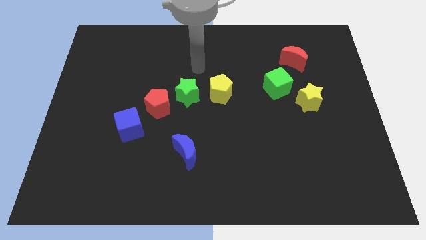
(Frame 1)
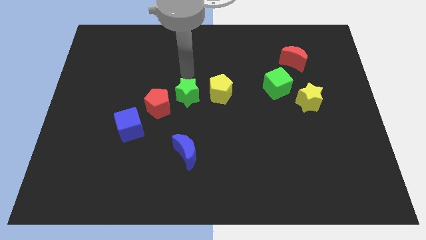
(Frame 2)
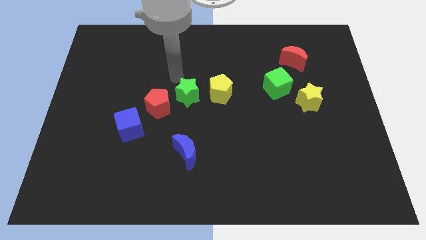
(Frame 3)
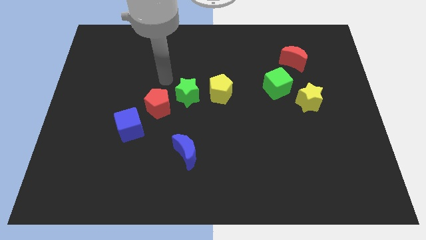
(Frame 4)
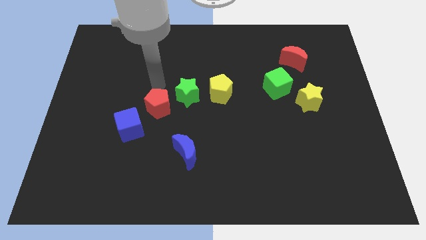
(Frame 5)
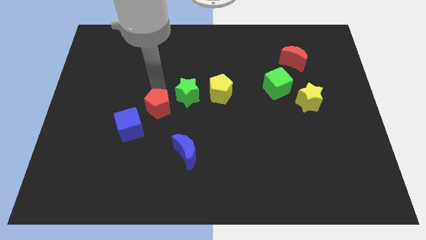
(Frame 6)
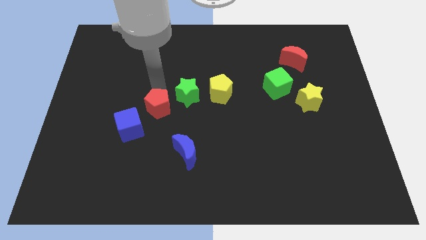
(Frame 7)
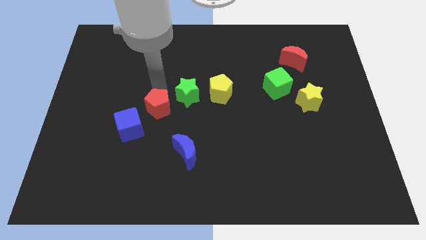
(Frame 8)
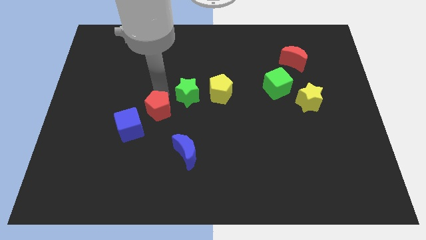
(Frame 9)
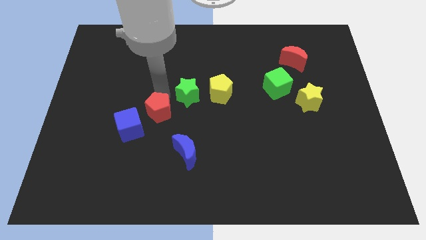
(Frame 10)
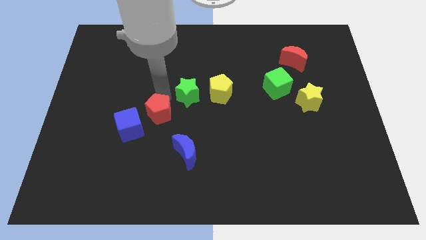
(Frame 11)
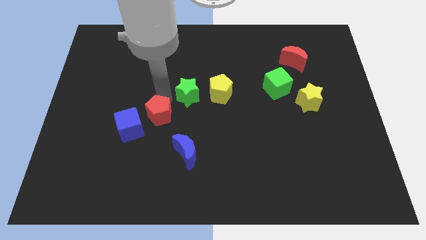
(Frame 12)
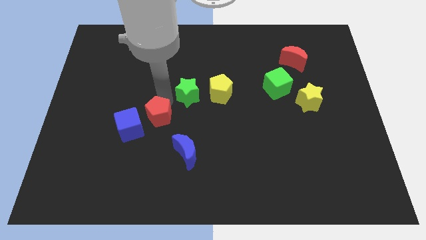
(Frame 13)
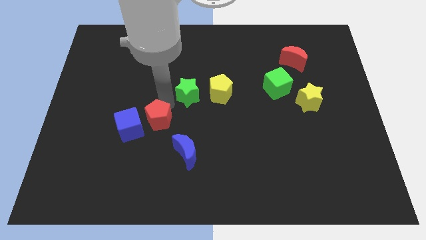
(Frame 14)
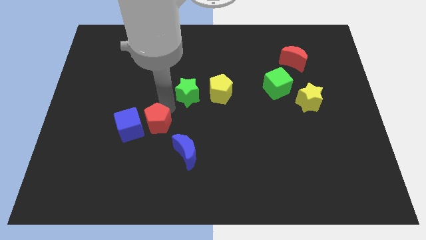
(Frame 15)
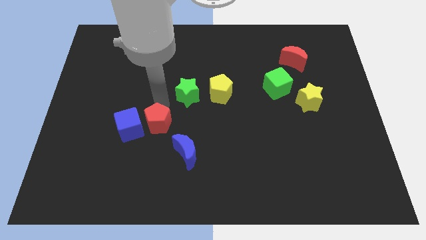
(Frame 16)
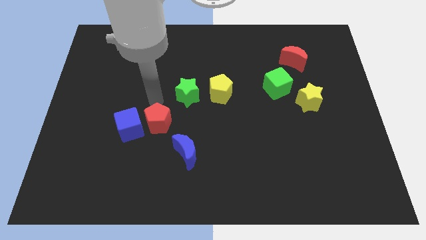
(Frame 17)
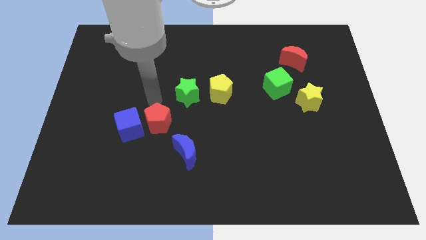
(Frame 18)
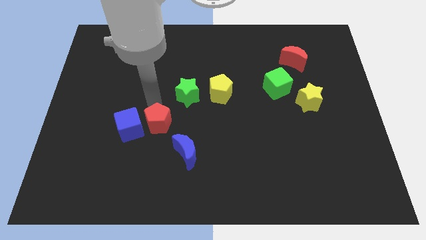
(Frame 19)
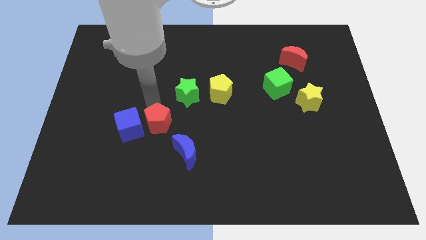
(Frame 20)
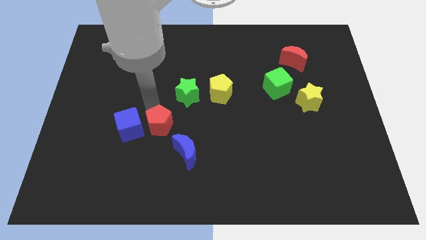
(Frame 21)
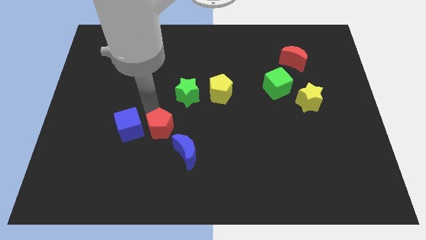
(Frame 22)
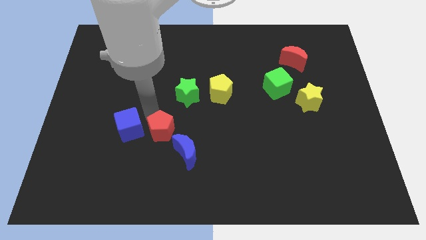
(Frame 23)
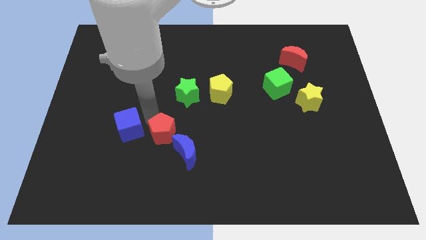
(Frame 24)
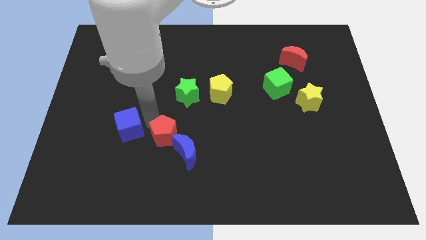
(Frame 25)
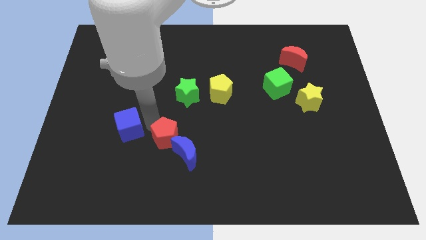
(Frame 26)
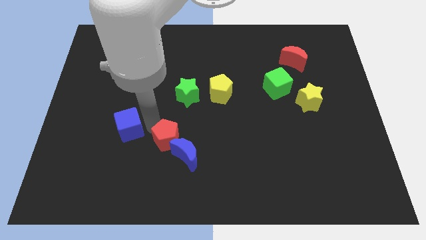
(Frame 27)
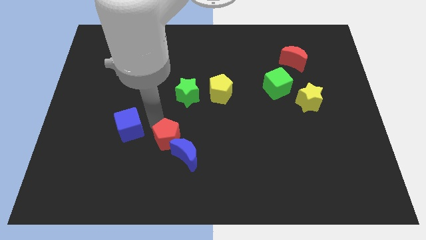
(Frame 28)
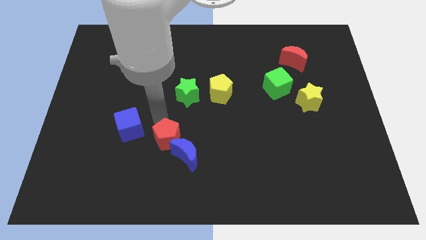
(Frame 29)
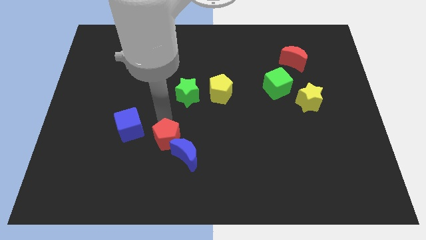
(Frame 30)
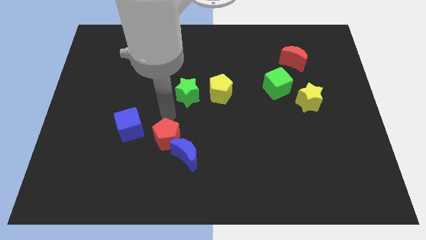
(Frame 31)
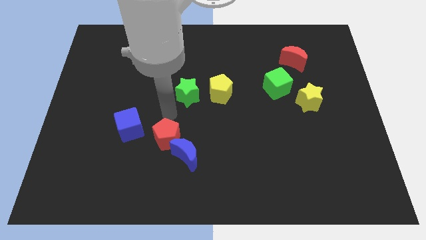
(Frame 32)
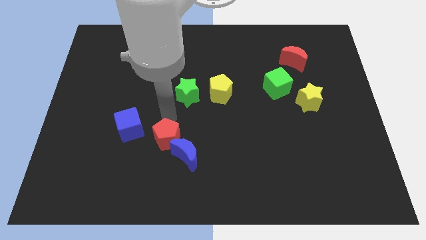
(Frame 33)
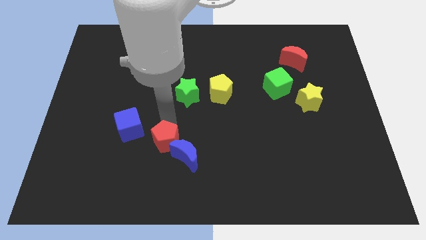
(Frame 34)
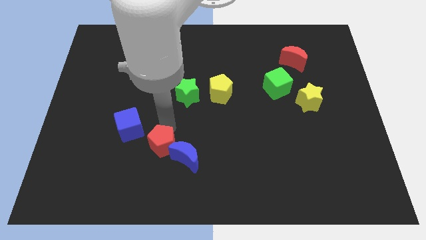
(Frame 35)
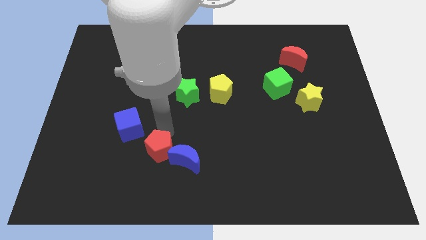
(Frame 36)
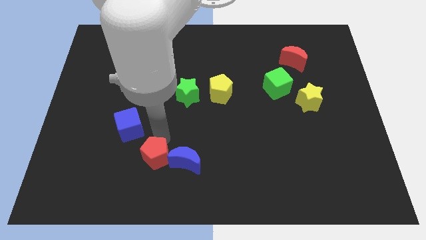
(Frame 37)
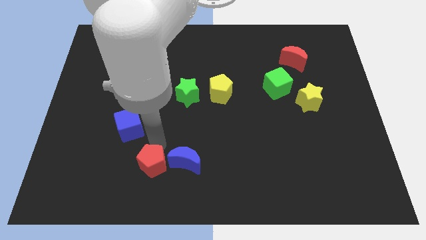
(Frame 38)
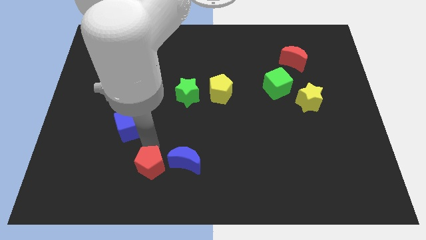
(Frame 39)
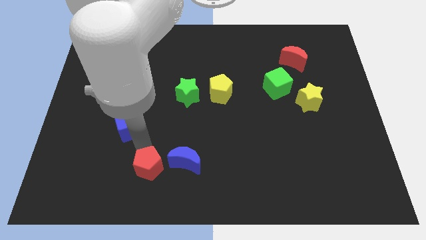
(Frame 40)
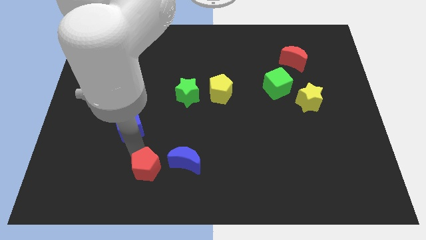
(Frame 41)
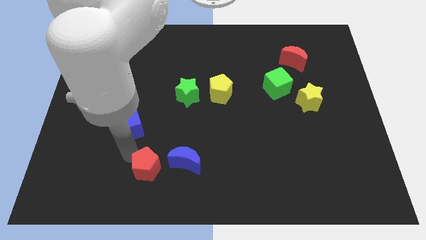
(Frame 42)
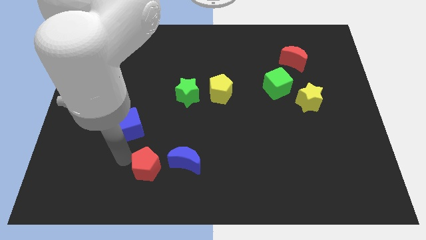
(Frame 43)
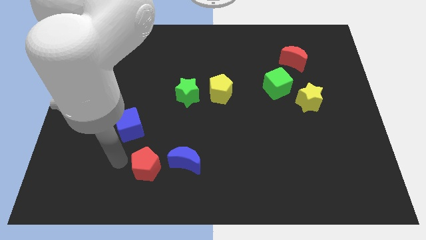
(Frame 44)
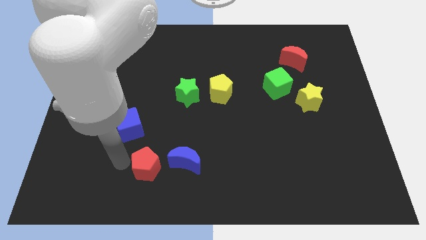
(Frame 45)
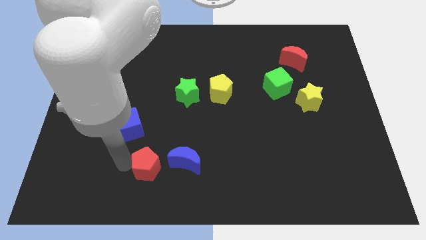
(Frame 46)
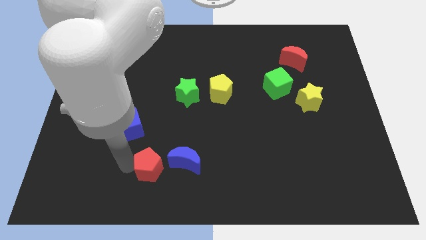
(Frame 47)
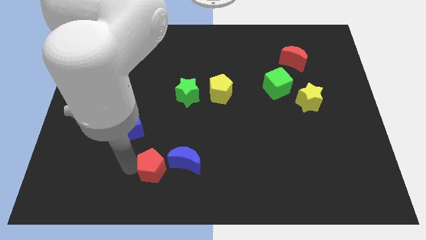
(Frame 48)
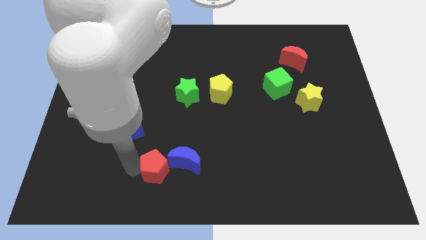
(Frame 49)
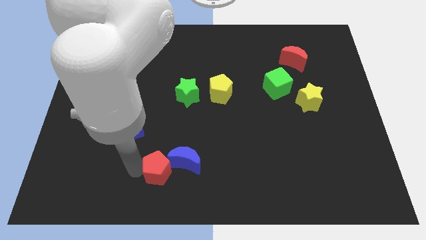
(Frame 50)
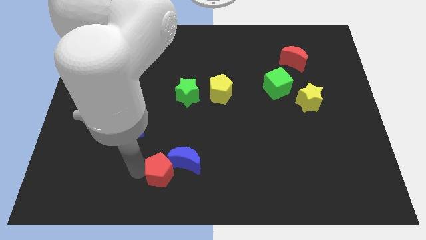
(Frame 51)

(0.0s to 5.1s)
put the red pentagon to the bottom side

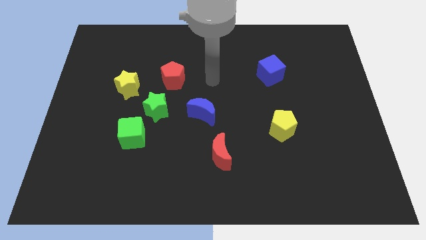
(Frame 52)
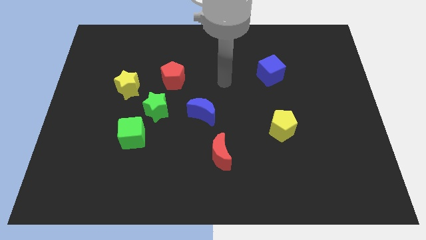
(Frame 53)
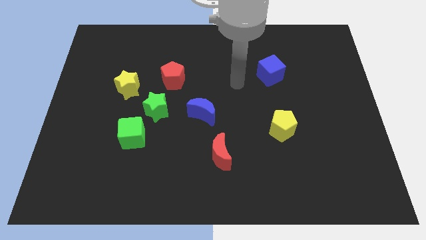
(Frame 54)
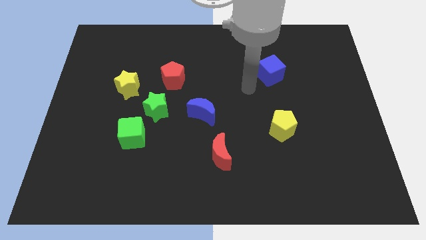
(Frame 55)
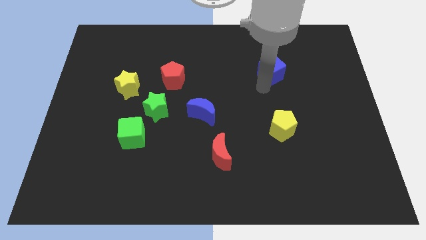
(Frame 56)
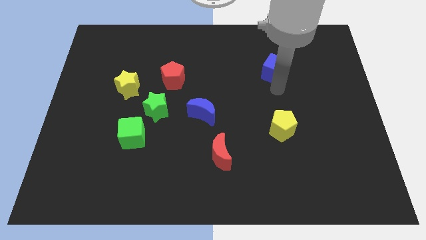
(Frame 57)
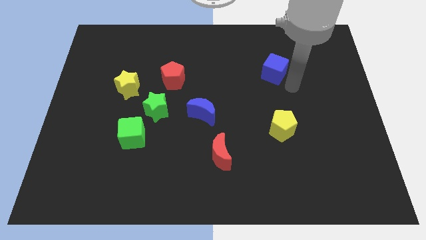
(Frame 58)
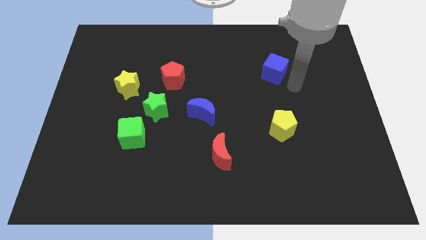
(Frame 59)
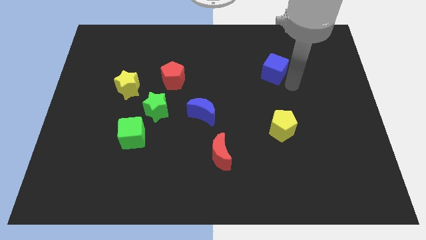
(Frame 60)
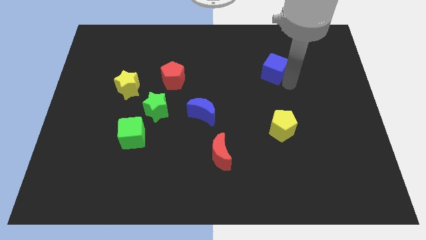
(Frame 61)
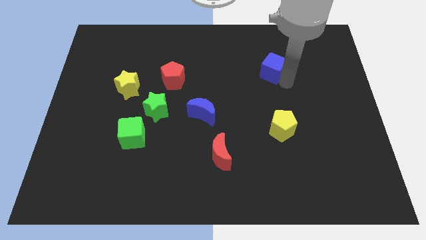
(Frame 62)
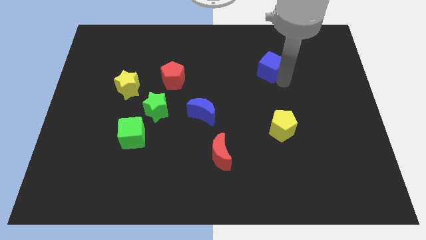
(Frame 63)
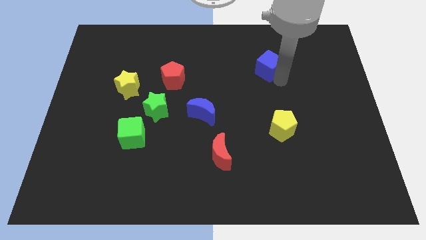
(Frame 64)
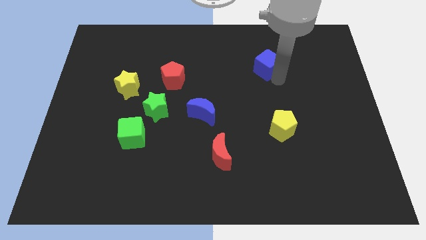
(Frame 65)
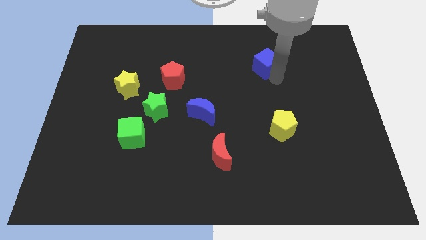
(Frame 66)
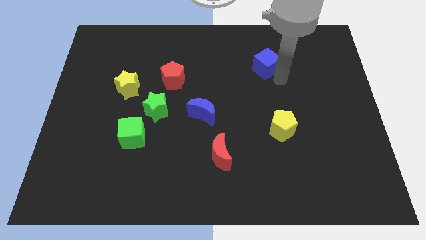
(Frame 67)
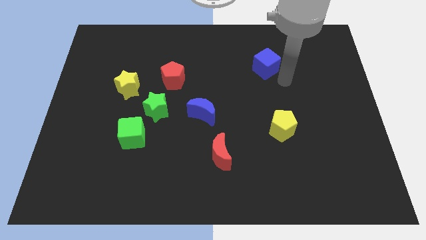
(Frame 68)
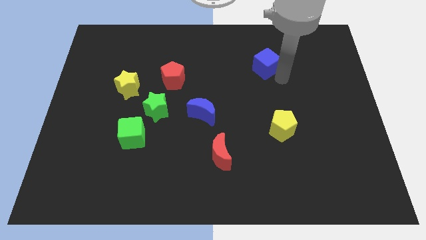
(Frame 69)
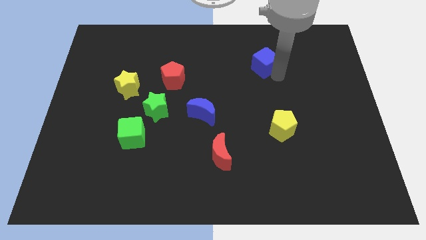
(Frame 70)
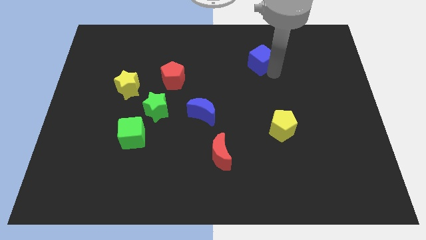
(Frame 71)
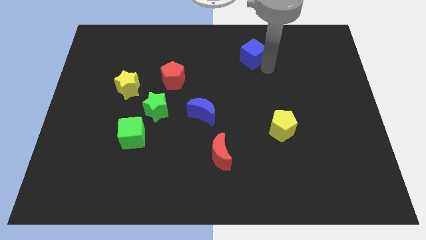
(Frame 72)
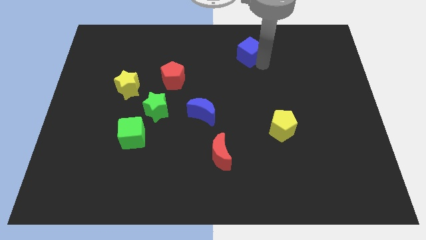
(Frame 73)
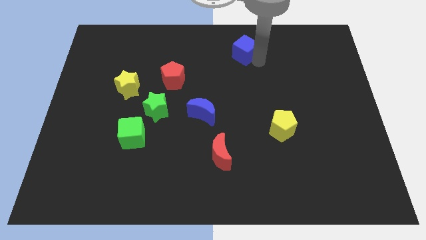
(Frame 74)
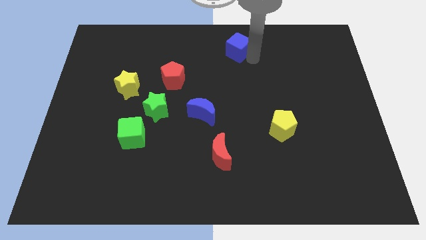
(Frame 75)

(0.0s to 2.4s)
put the blue cube to the towards your base

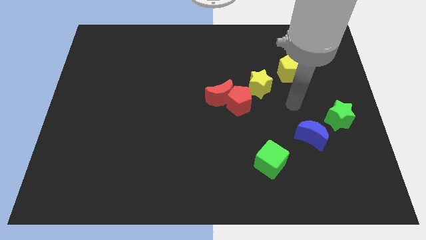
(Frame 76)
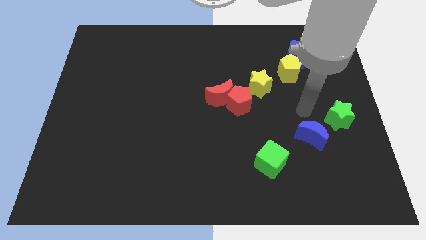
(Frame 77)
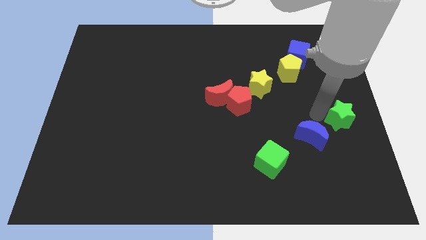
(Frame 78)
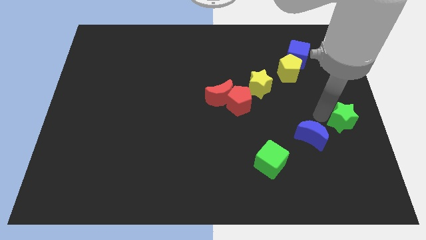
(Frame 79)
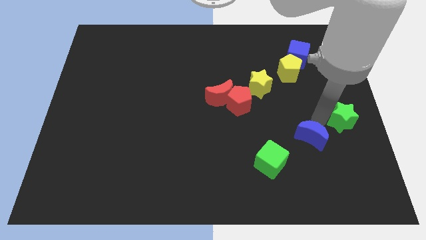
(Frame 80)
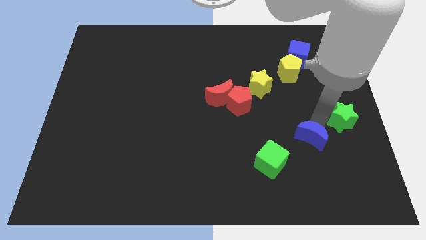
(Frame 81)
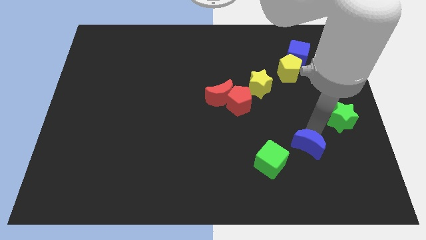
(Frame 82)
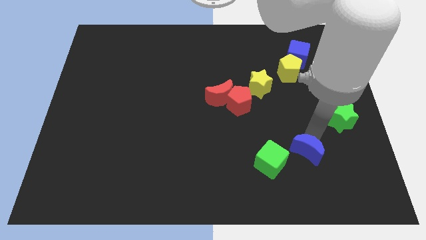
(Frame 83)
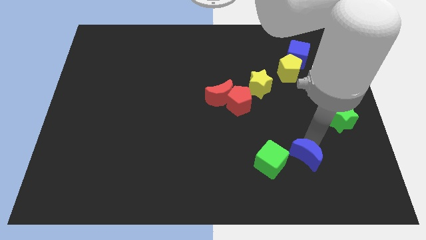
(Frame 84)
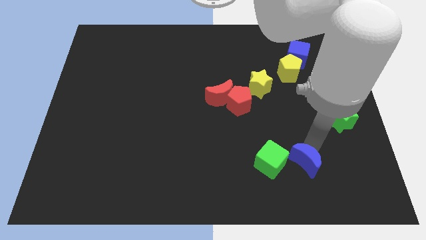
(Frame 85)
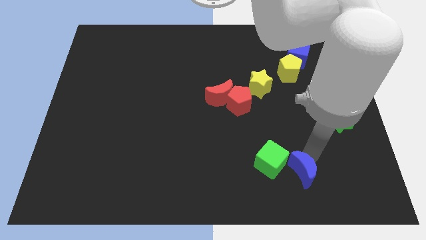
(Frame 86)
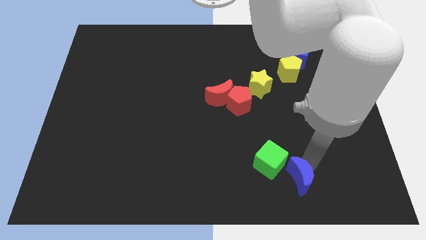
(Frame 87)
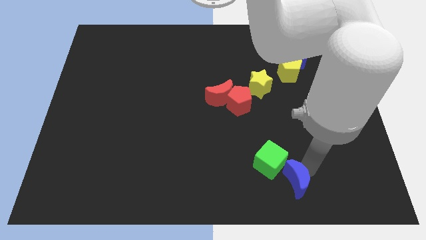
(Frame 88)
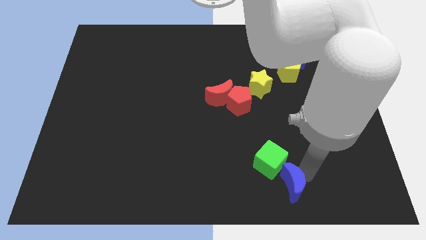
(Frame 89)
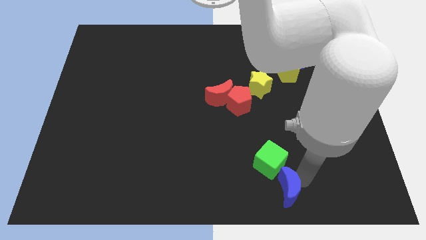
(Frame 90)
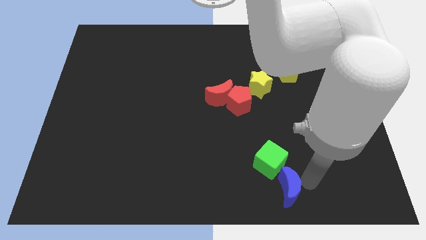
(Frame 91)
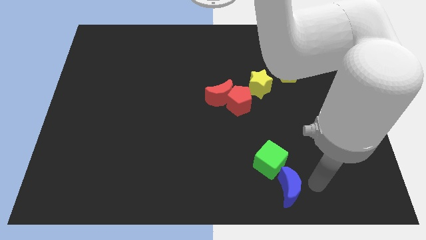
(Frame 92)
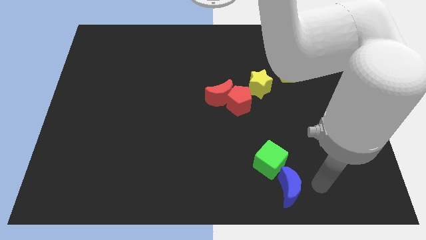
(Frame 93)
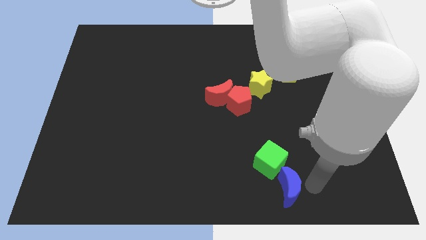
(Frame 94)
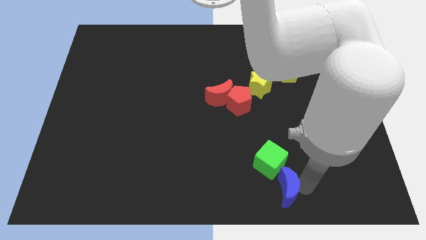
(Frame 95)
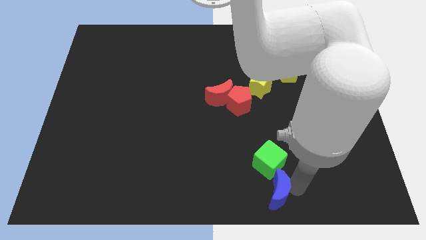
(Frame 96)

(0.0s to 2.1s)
put the blue moon to the bottom
